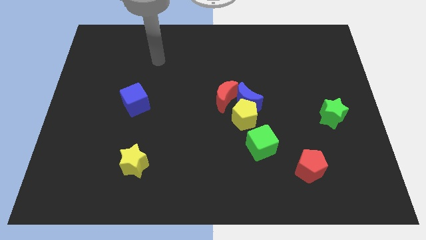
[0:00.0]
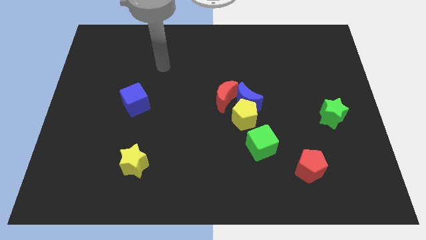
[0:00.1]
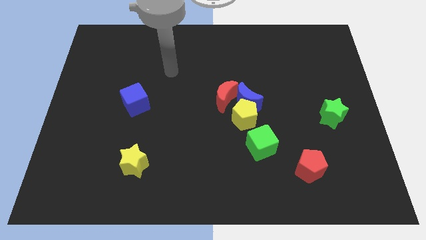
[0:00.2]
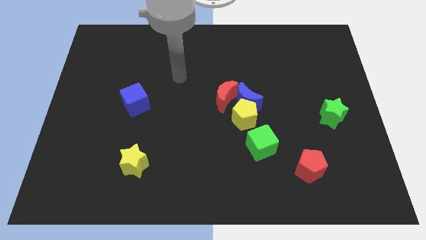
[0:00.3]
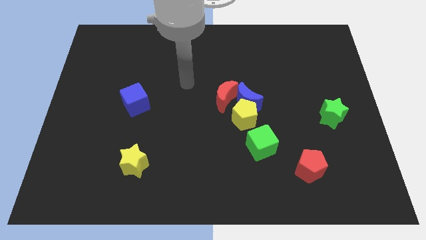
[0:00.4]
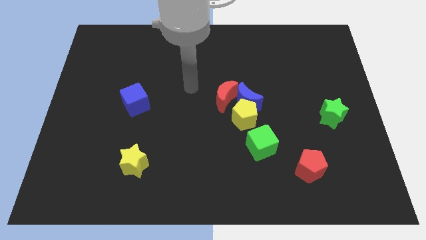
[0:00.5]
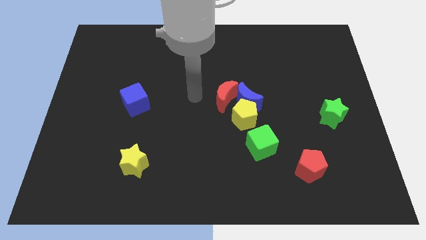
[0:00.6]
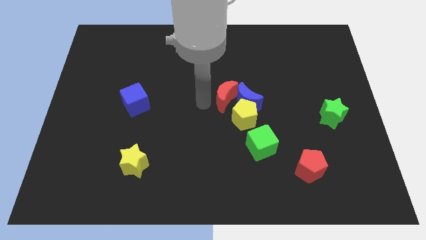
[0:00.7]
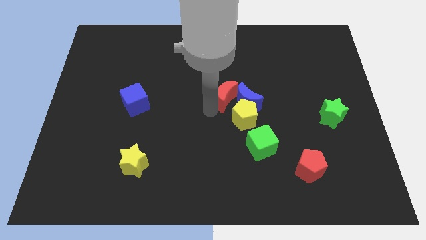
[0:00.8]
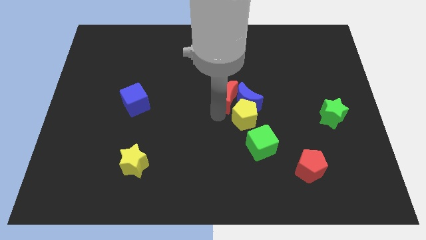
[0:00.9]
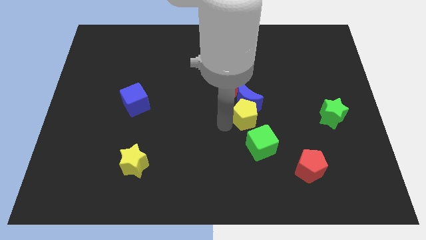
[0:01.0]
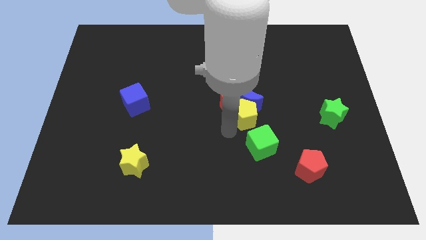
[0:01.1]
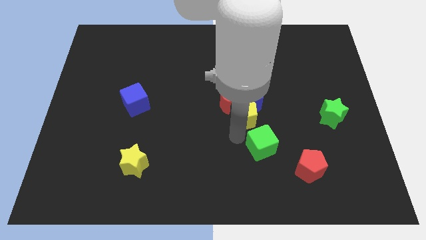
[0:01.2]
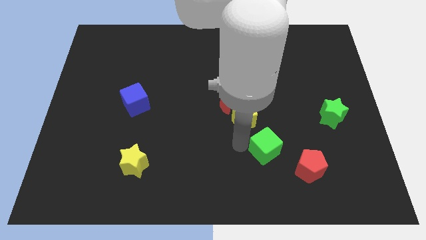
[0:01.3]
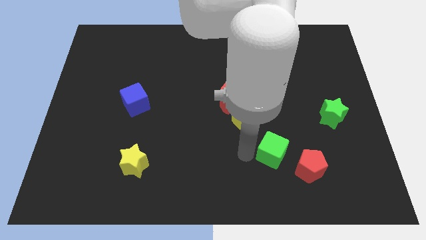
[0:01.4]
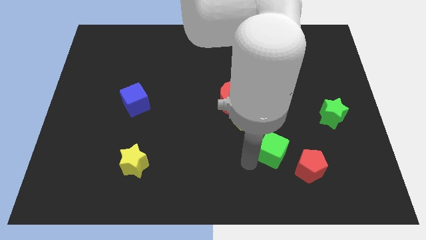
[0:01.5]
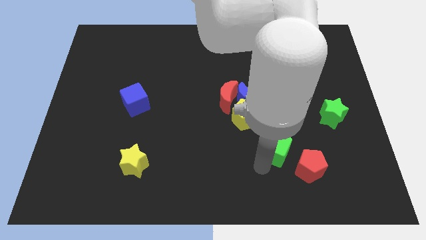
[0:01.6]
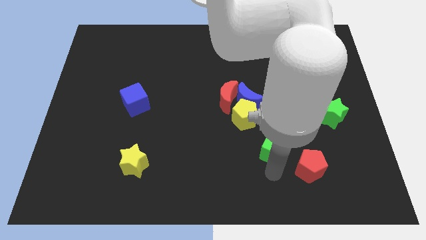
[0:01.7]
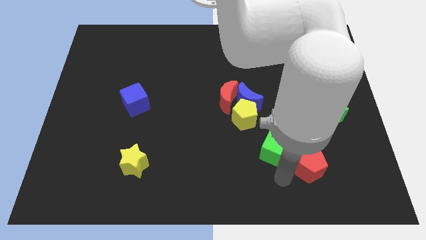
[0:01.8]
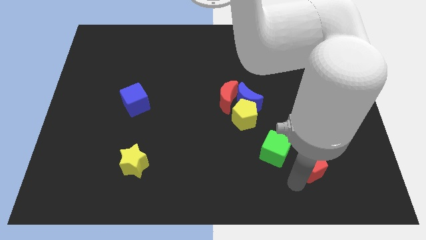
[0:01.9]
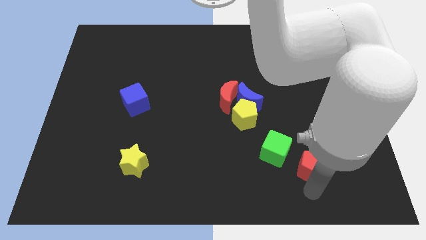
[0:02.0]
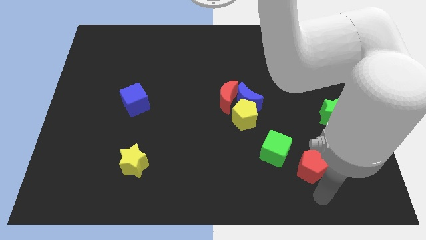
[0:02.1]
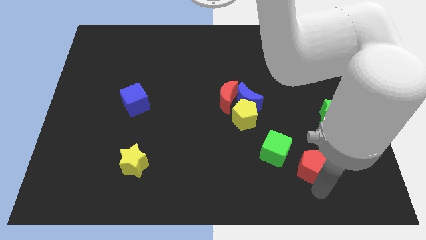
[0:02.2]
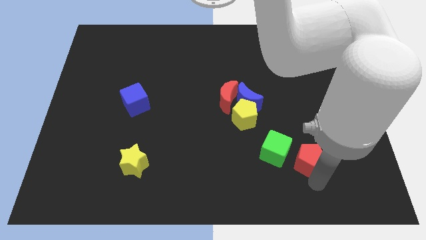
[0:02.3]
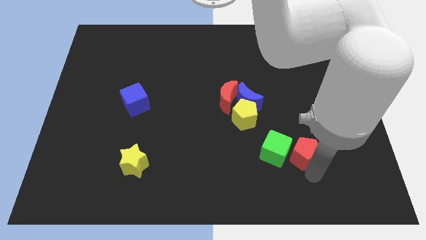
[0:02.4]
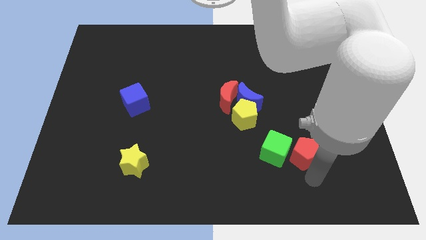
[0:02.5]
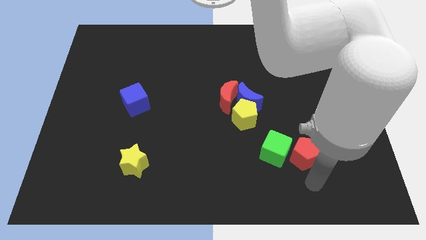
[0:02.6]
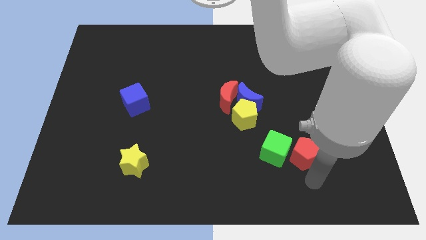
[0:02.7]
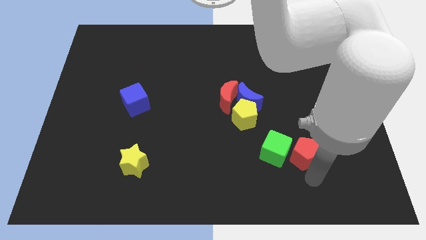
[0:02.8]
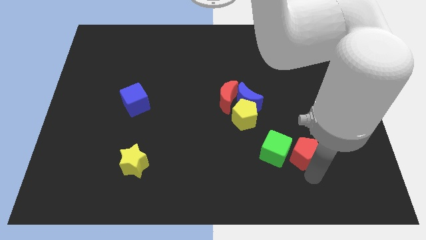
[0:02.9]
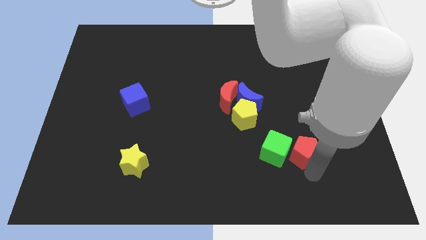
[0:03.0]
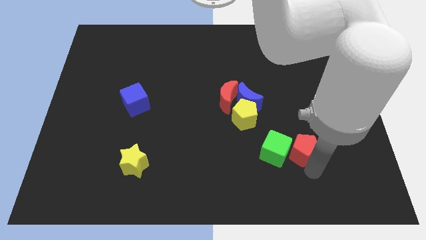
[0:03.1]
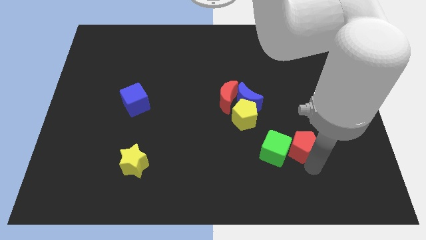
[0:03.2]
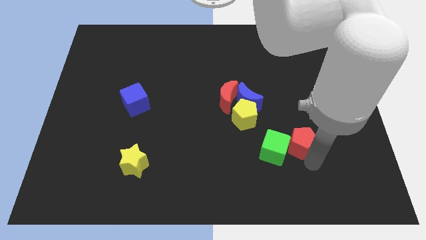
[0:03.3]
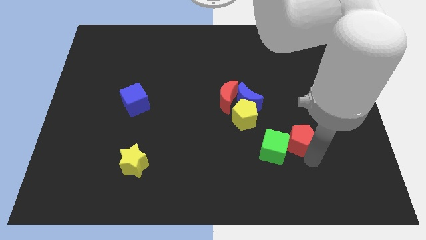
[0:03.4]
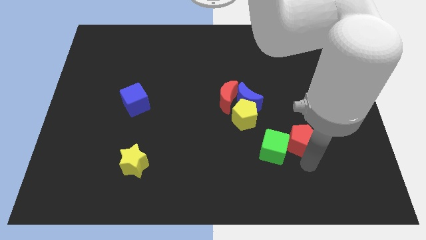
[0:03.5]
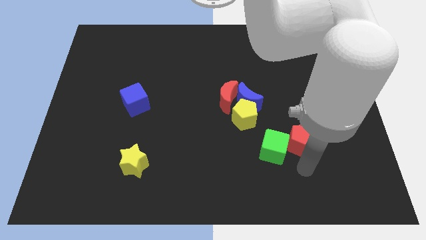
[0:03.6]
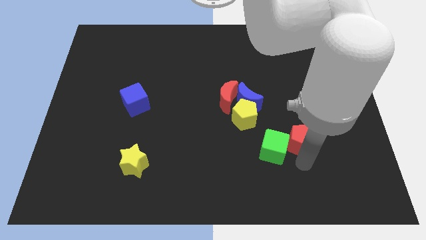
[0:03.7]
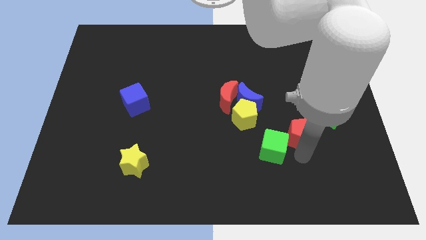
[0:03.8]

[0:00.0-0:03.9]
move the red pentagon upwards somewhat

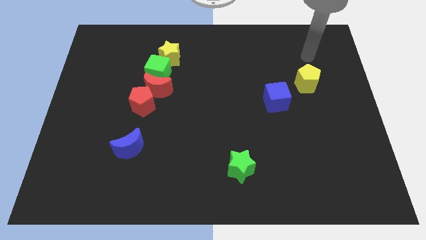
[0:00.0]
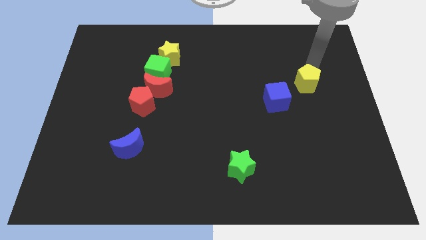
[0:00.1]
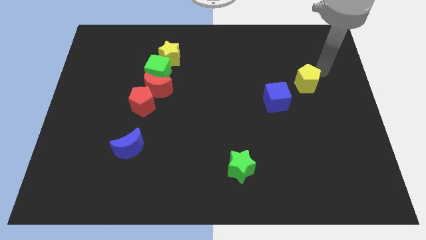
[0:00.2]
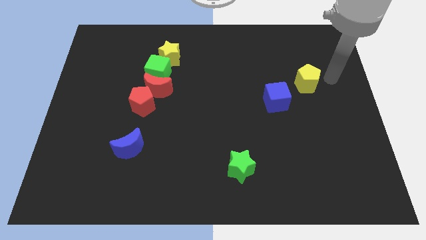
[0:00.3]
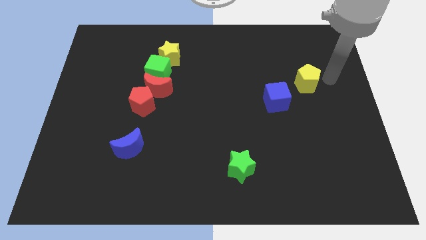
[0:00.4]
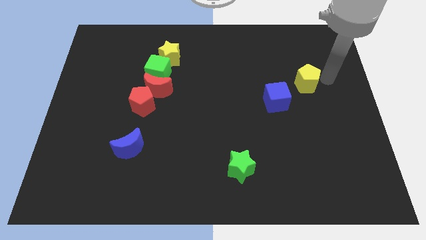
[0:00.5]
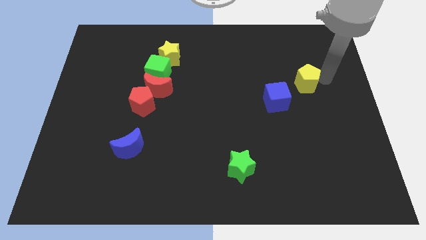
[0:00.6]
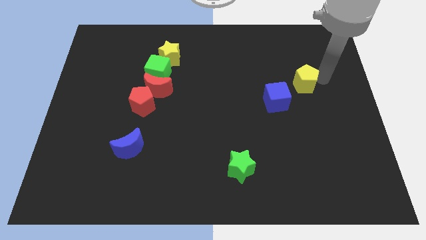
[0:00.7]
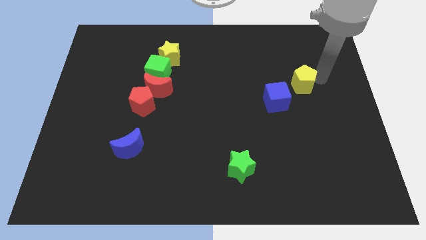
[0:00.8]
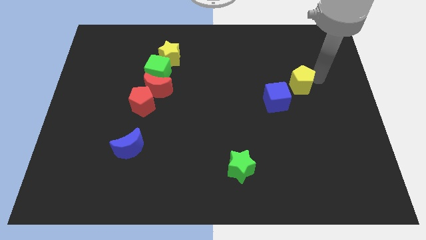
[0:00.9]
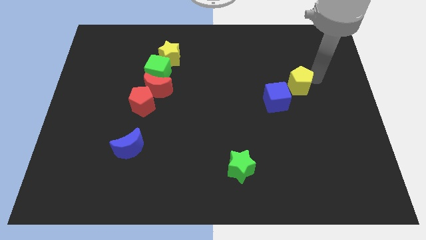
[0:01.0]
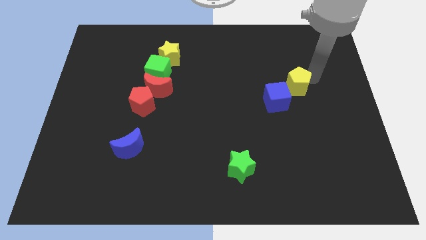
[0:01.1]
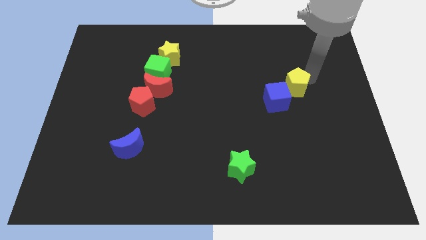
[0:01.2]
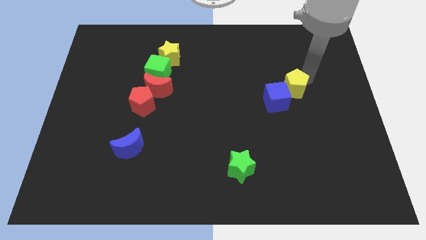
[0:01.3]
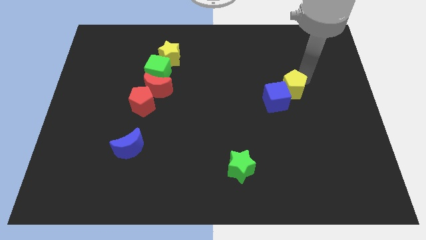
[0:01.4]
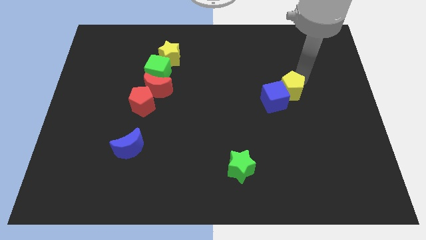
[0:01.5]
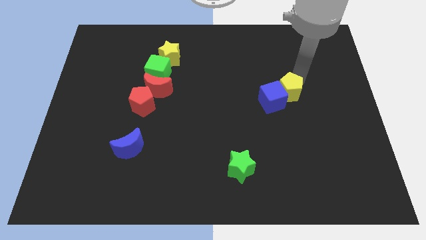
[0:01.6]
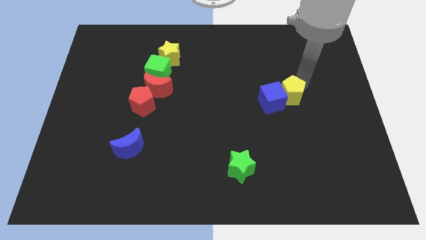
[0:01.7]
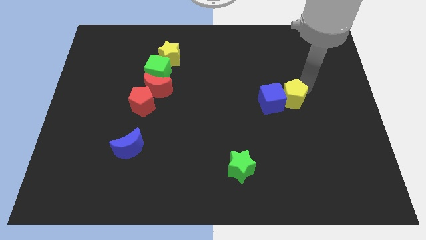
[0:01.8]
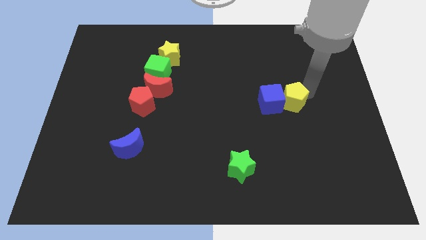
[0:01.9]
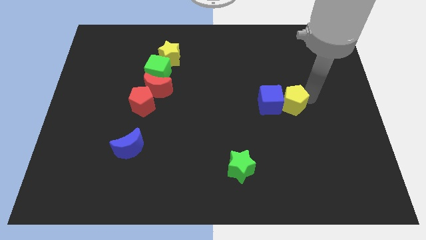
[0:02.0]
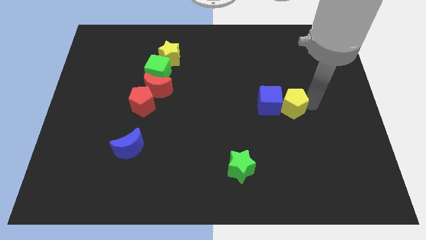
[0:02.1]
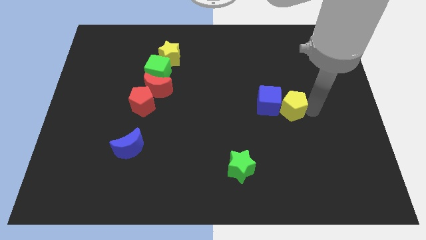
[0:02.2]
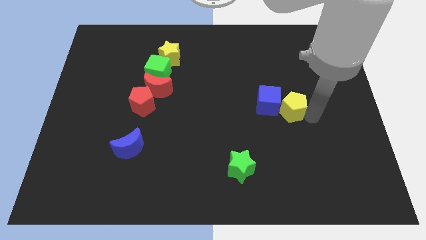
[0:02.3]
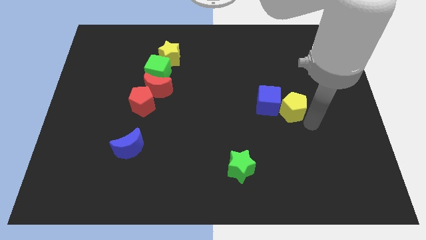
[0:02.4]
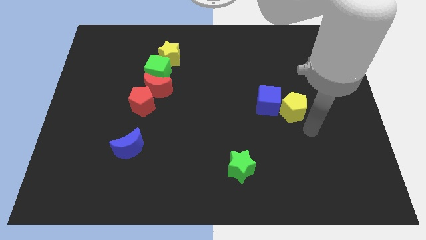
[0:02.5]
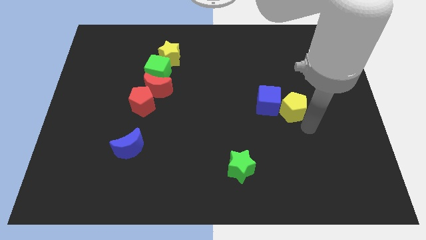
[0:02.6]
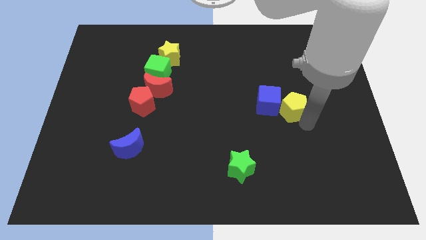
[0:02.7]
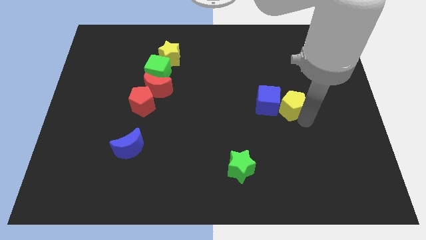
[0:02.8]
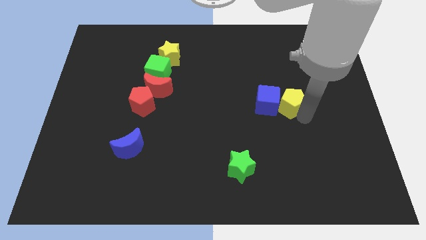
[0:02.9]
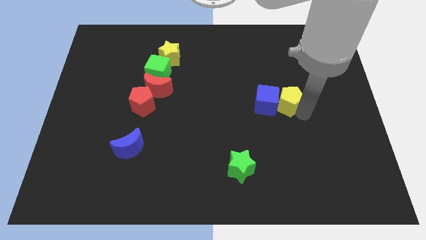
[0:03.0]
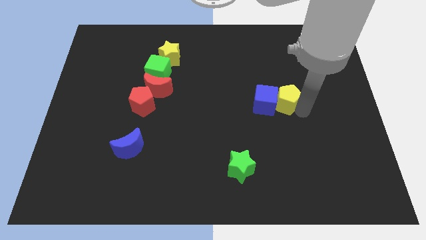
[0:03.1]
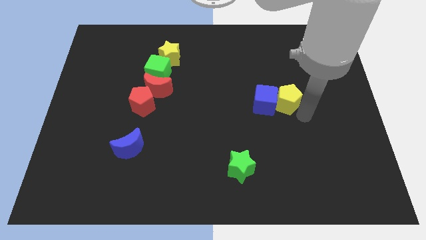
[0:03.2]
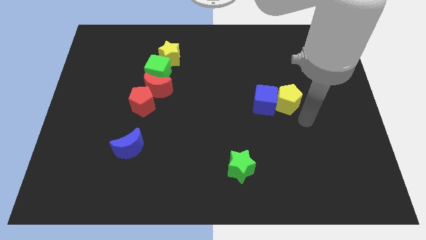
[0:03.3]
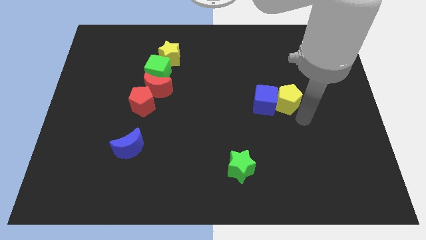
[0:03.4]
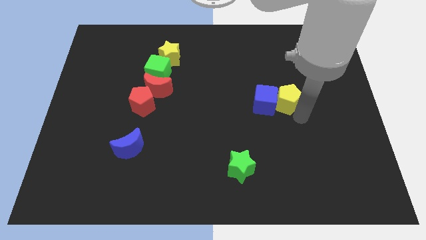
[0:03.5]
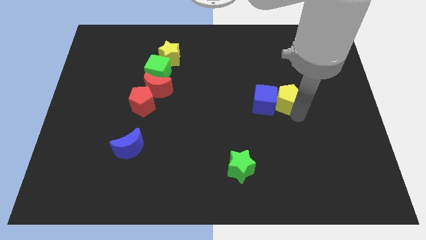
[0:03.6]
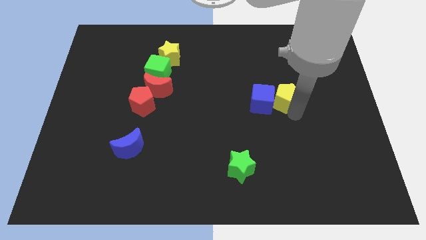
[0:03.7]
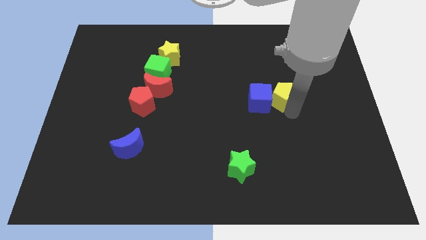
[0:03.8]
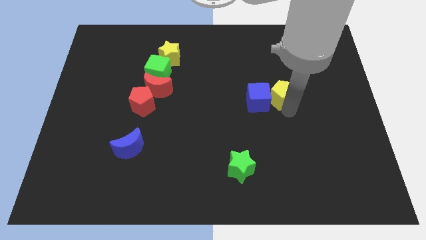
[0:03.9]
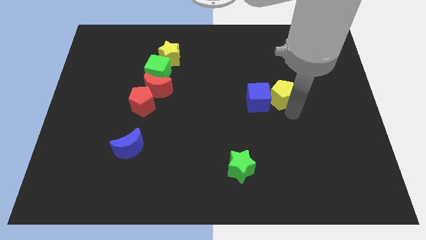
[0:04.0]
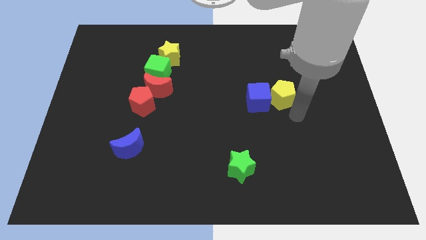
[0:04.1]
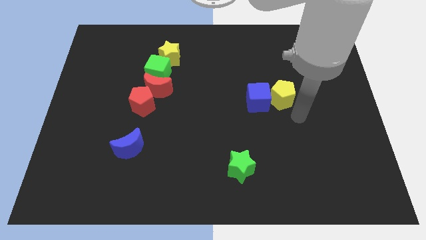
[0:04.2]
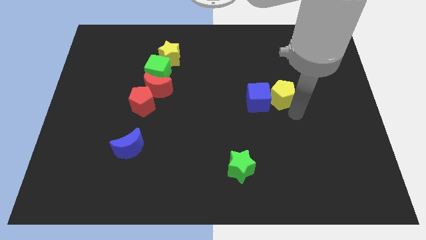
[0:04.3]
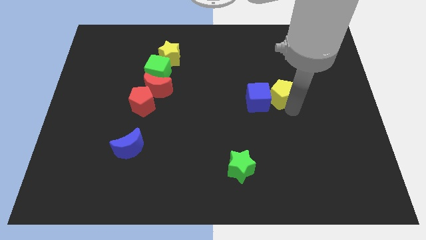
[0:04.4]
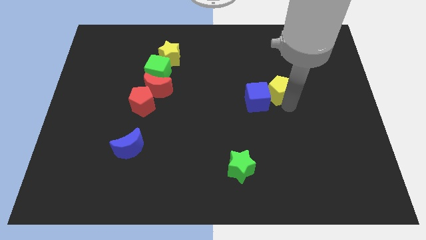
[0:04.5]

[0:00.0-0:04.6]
move the yellow pentagon somewhat left
